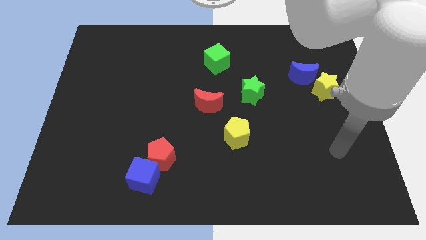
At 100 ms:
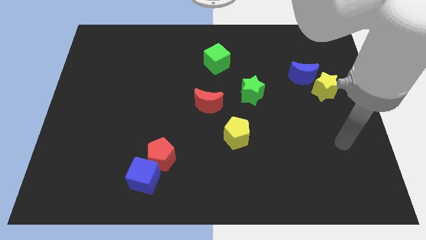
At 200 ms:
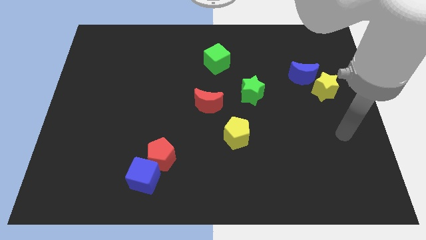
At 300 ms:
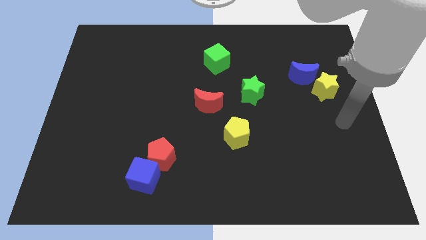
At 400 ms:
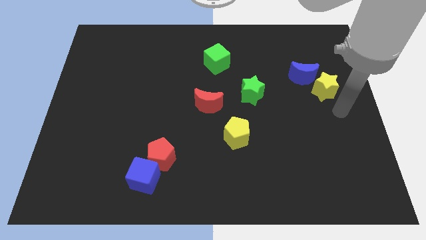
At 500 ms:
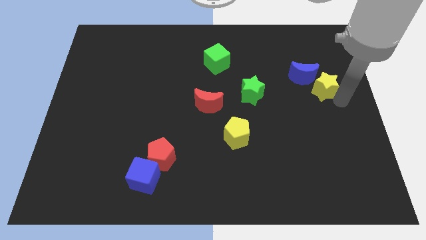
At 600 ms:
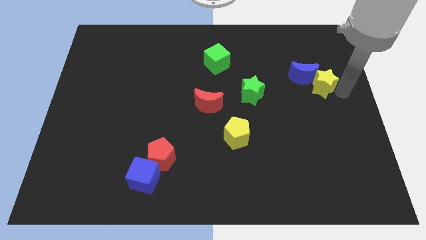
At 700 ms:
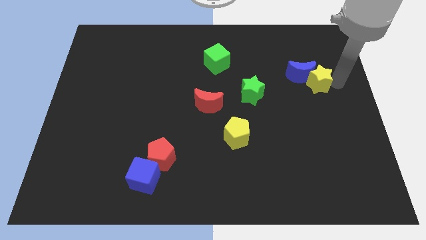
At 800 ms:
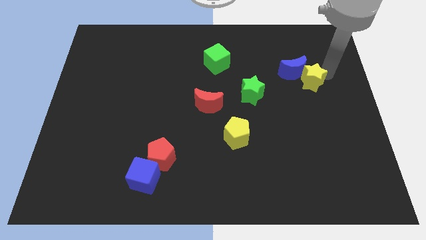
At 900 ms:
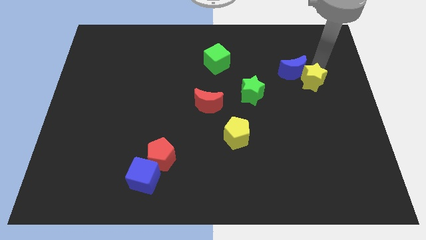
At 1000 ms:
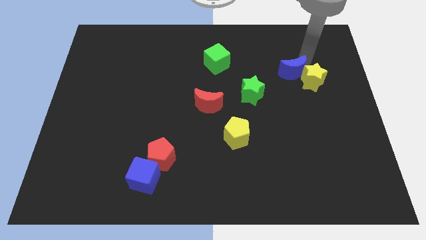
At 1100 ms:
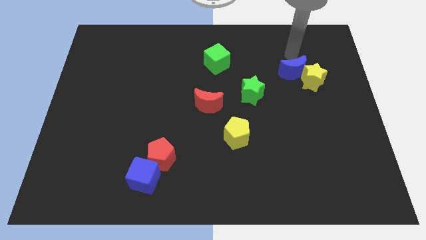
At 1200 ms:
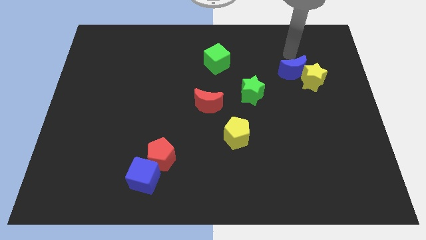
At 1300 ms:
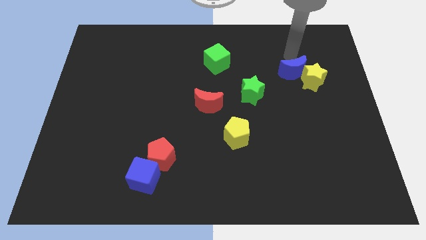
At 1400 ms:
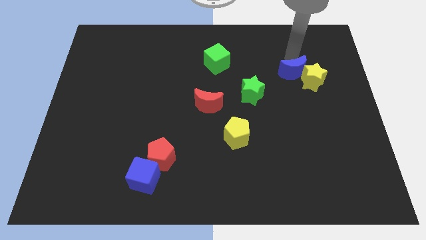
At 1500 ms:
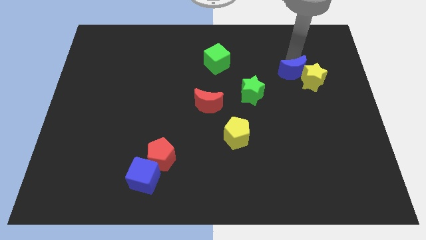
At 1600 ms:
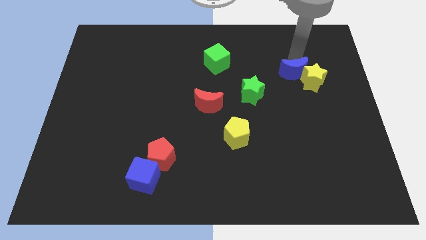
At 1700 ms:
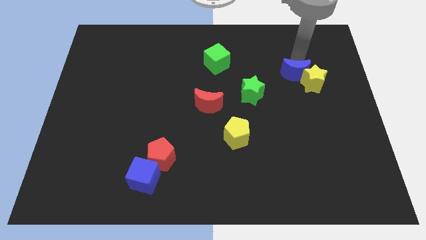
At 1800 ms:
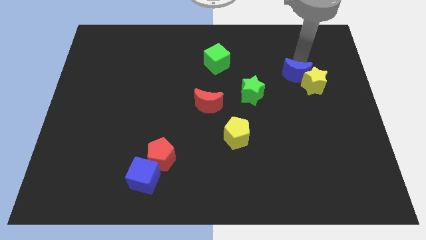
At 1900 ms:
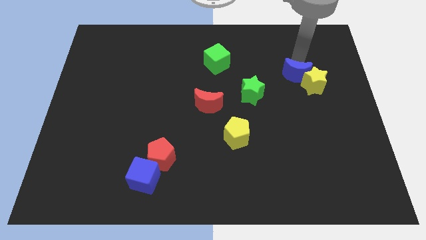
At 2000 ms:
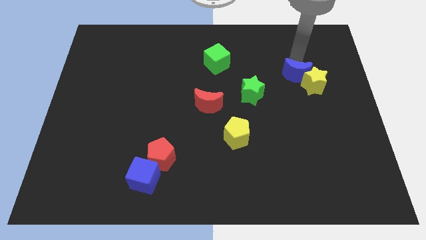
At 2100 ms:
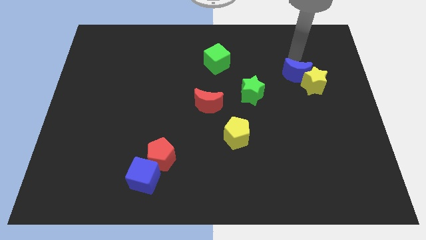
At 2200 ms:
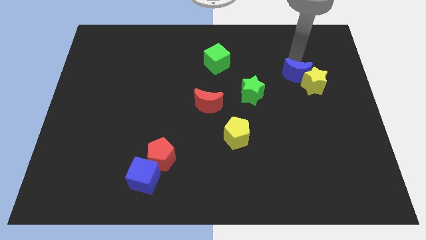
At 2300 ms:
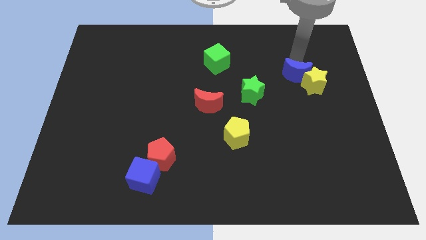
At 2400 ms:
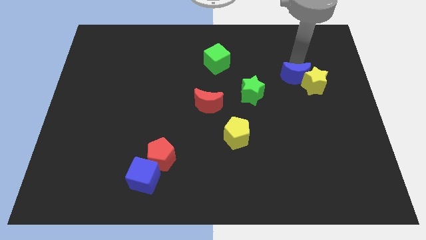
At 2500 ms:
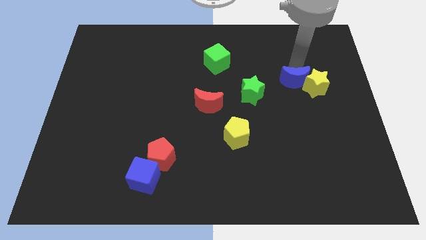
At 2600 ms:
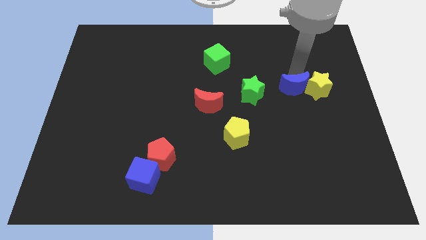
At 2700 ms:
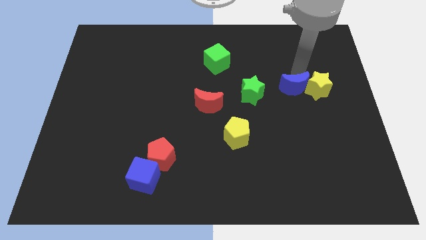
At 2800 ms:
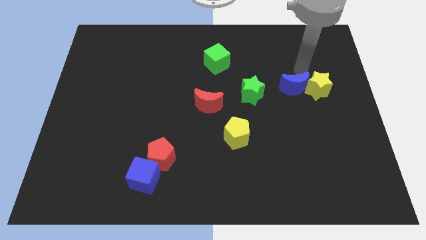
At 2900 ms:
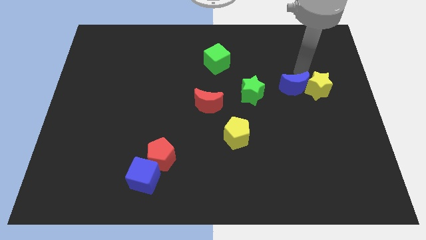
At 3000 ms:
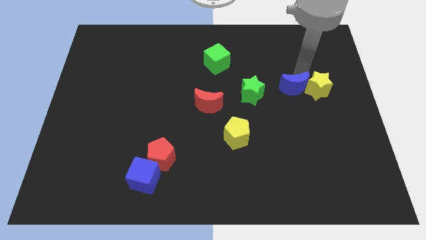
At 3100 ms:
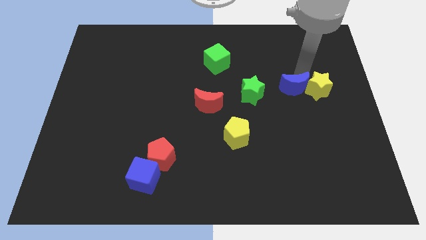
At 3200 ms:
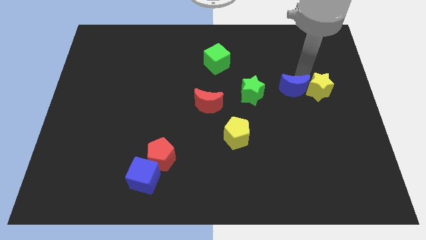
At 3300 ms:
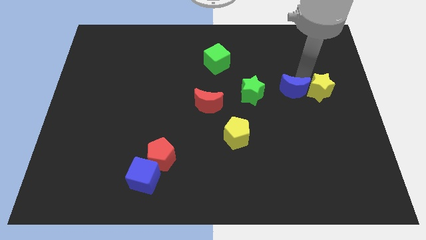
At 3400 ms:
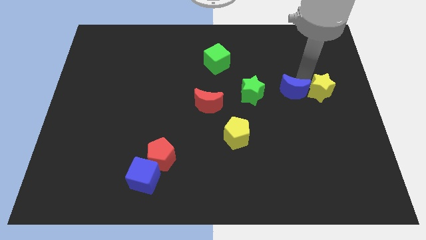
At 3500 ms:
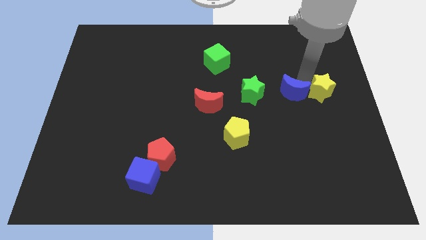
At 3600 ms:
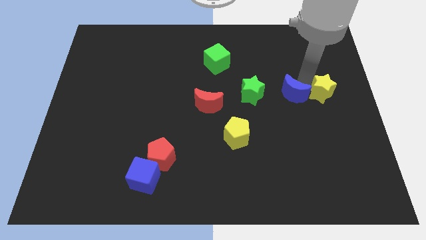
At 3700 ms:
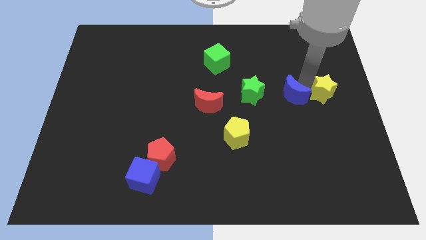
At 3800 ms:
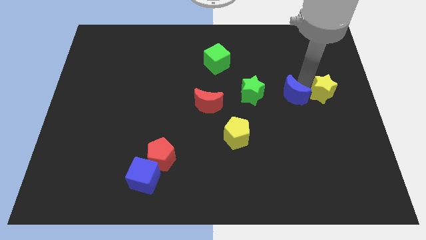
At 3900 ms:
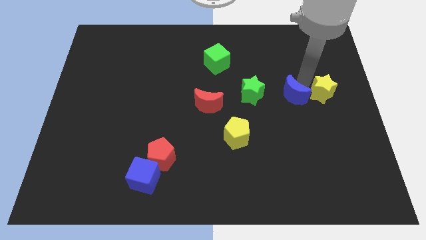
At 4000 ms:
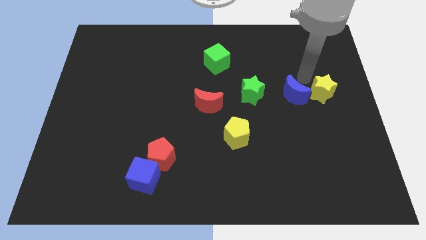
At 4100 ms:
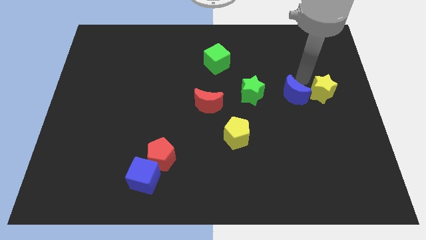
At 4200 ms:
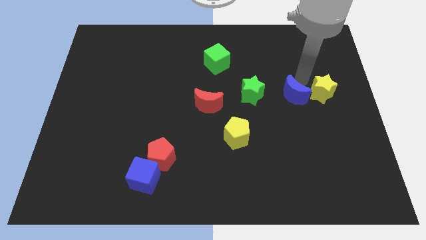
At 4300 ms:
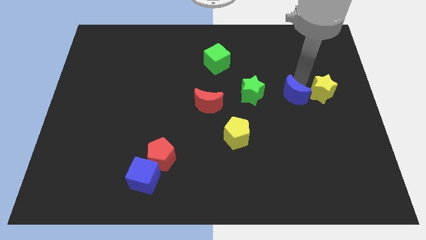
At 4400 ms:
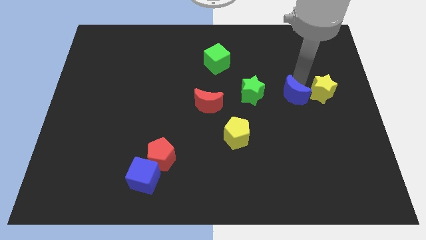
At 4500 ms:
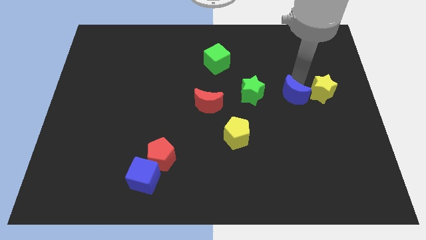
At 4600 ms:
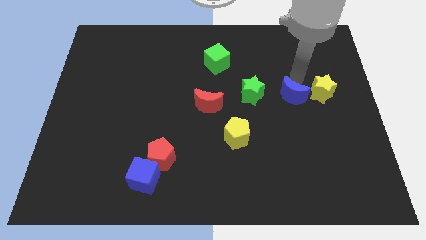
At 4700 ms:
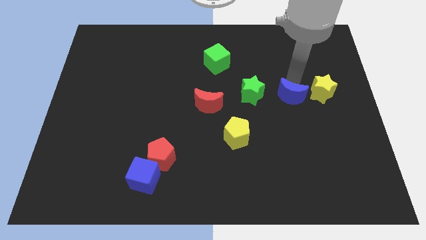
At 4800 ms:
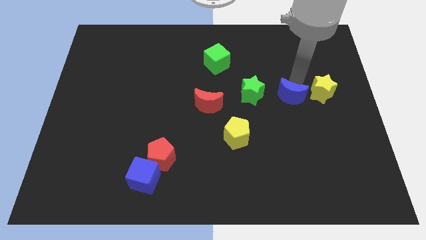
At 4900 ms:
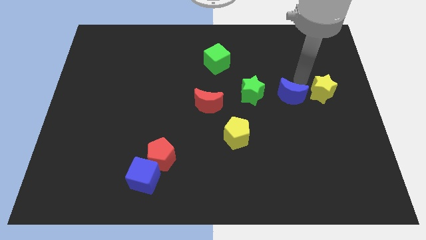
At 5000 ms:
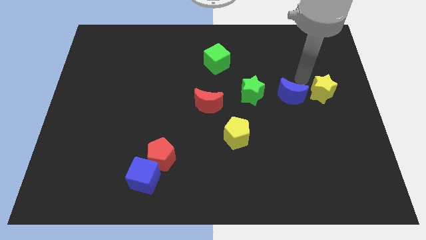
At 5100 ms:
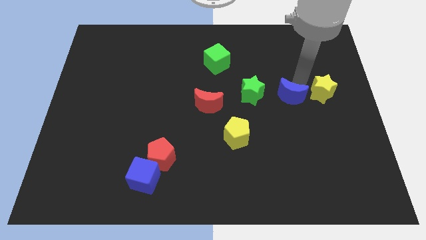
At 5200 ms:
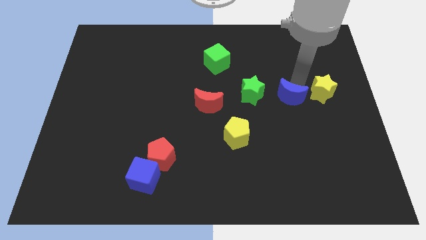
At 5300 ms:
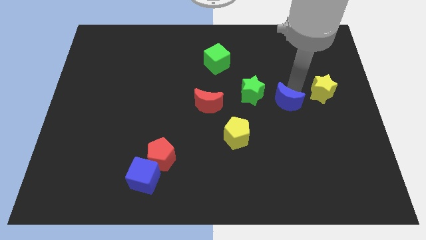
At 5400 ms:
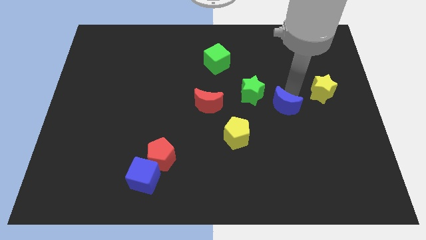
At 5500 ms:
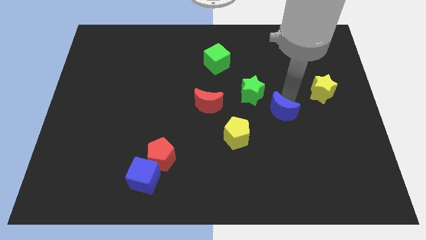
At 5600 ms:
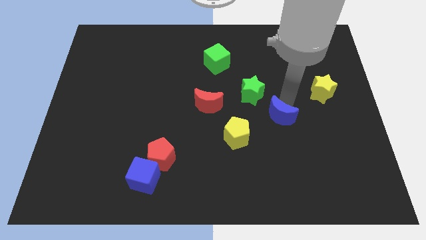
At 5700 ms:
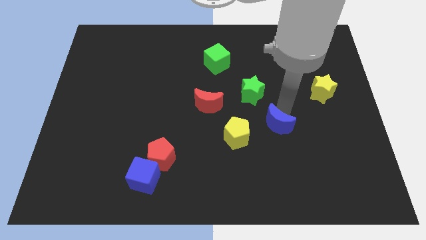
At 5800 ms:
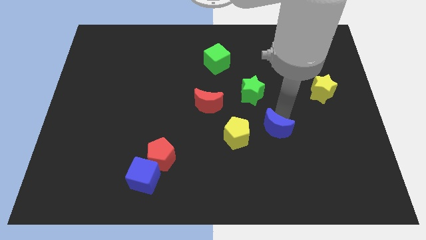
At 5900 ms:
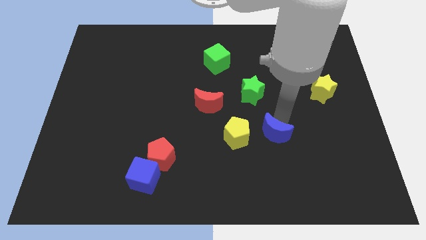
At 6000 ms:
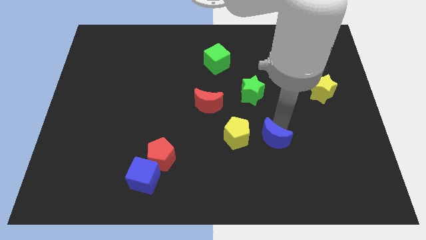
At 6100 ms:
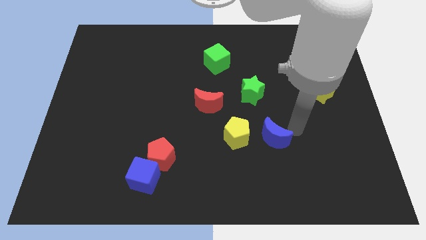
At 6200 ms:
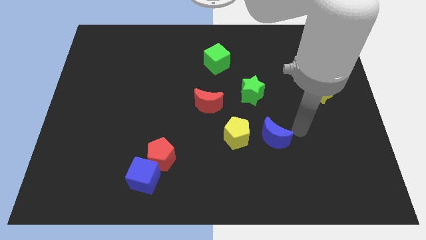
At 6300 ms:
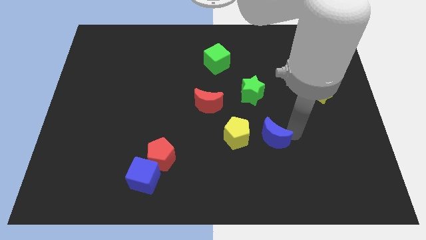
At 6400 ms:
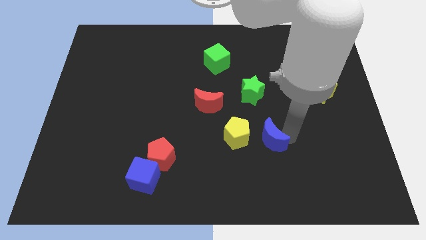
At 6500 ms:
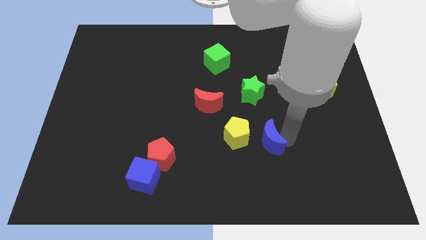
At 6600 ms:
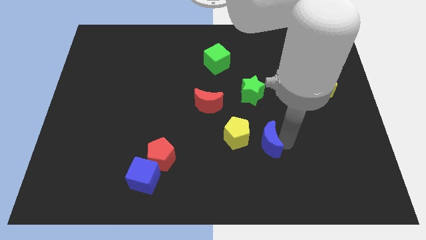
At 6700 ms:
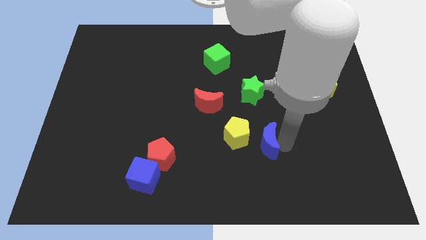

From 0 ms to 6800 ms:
move the blue moon downwards and then to the left

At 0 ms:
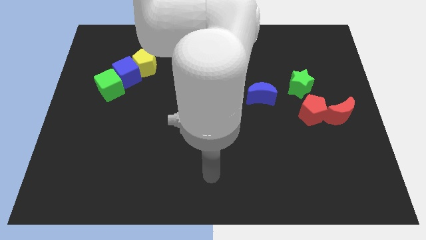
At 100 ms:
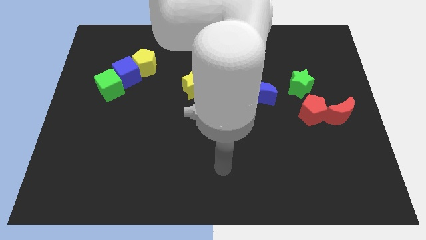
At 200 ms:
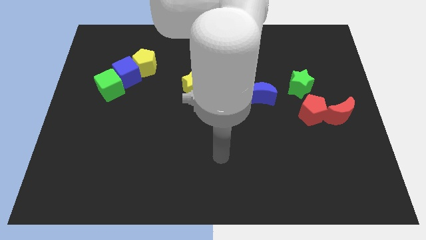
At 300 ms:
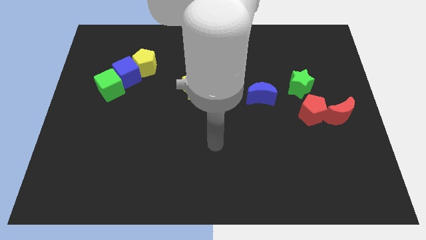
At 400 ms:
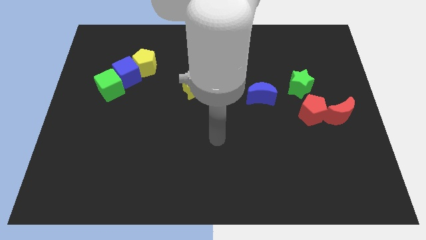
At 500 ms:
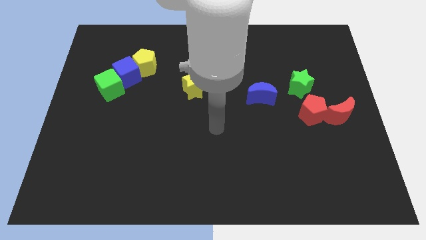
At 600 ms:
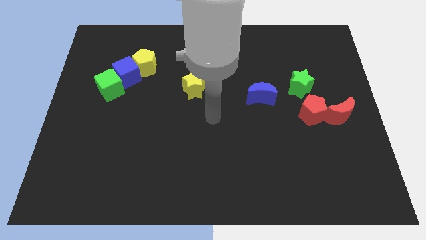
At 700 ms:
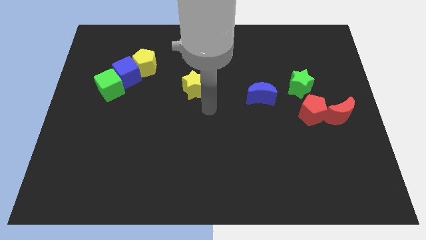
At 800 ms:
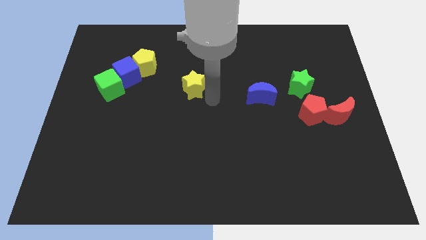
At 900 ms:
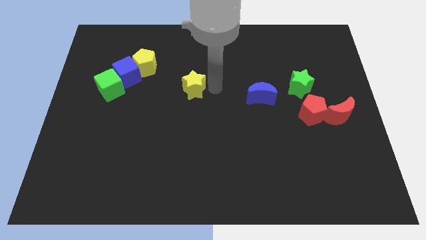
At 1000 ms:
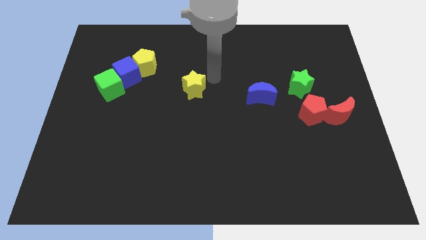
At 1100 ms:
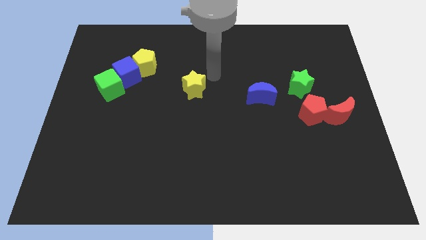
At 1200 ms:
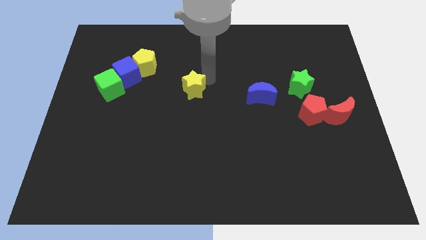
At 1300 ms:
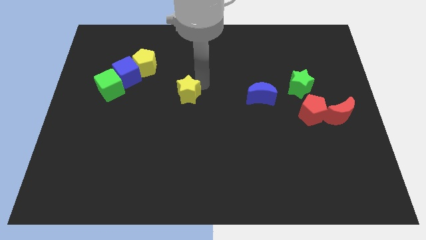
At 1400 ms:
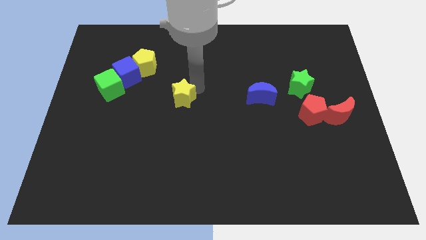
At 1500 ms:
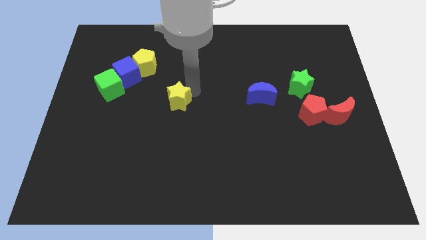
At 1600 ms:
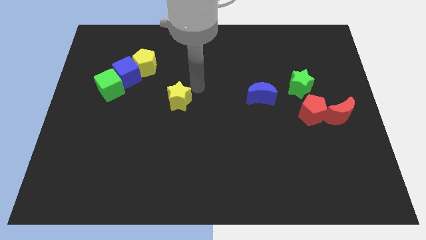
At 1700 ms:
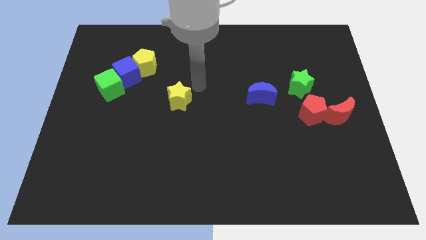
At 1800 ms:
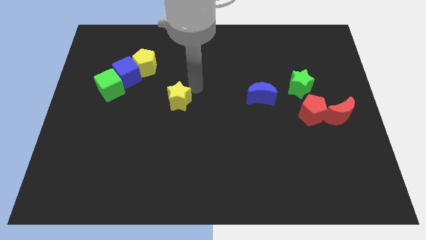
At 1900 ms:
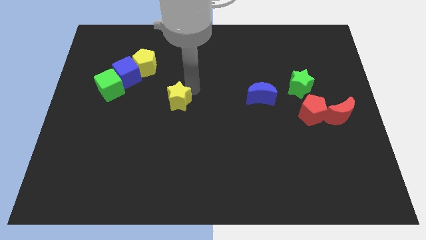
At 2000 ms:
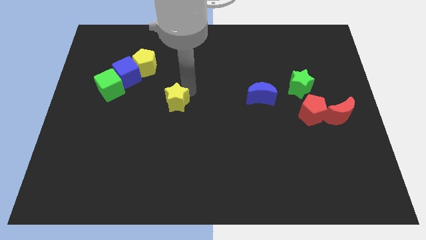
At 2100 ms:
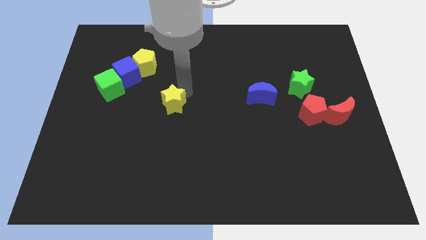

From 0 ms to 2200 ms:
push the yellow star a little downwards and to the left
